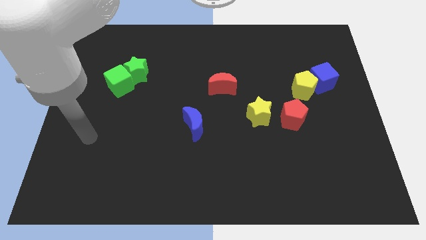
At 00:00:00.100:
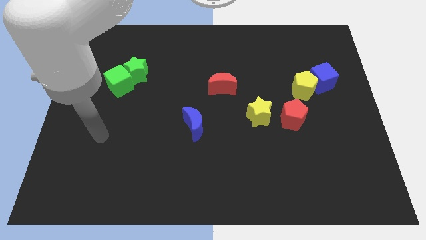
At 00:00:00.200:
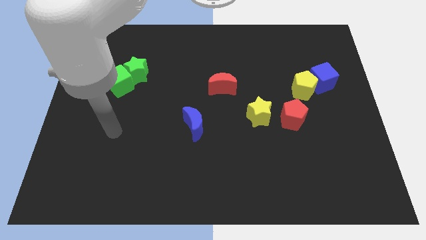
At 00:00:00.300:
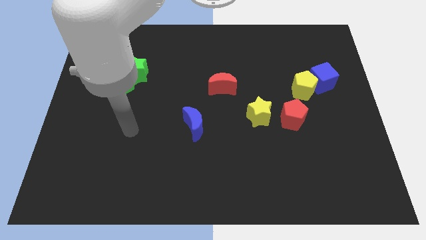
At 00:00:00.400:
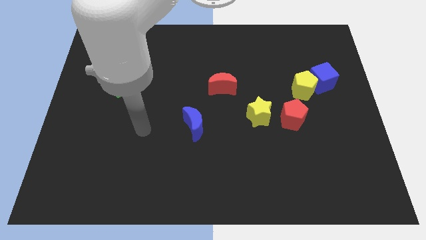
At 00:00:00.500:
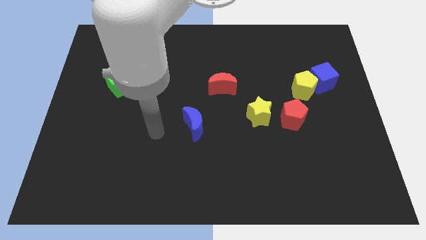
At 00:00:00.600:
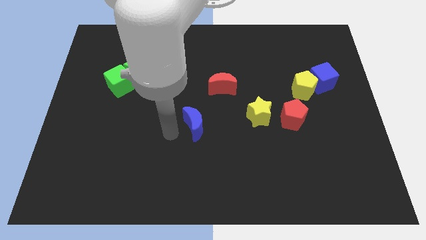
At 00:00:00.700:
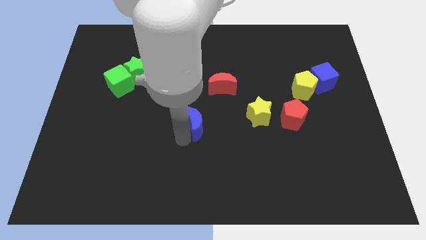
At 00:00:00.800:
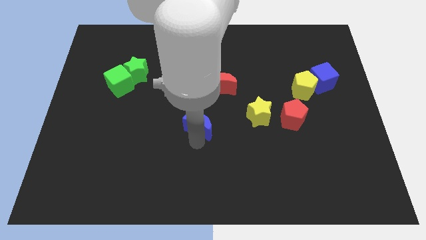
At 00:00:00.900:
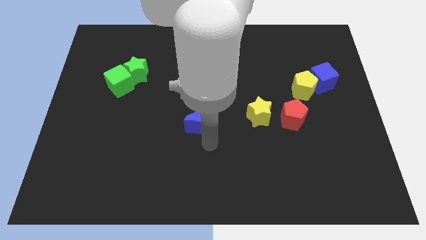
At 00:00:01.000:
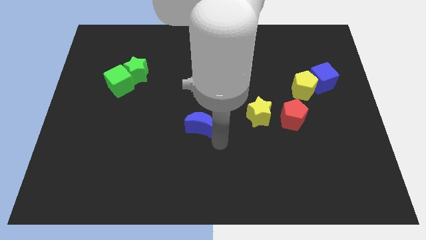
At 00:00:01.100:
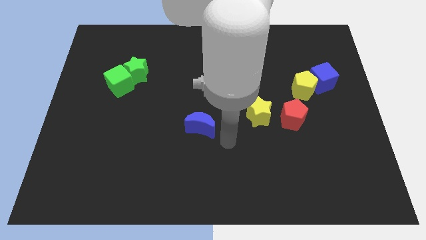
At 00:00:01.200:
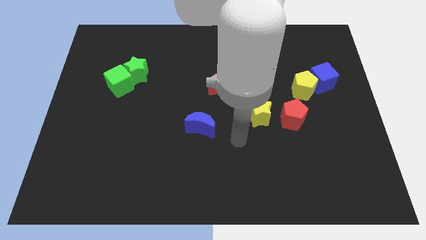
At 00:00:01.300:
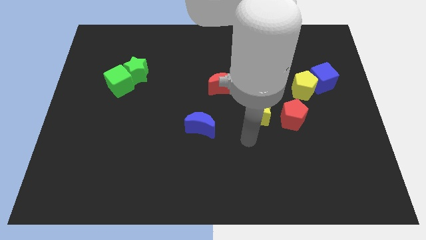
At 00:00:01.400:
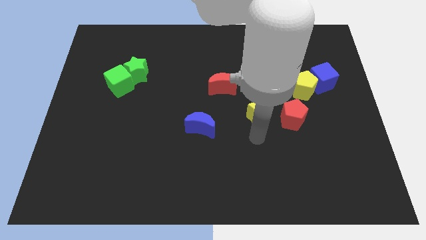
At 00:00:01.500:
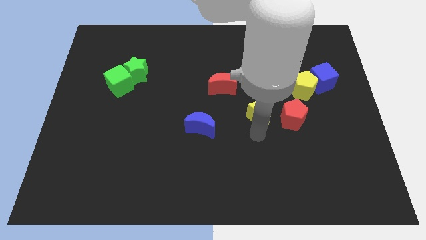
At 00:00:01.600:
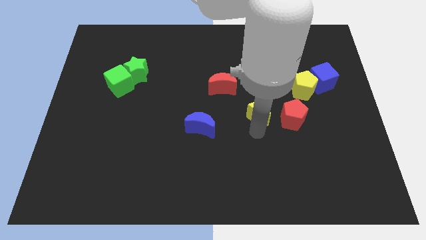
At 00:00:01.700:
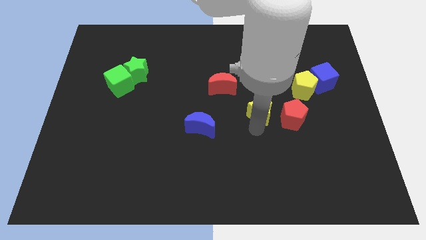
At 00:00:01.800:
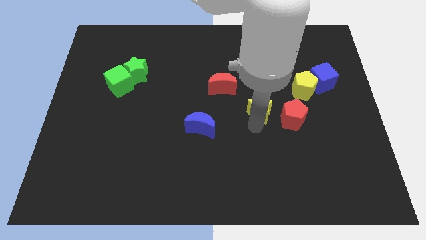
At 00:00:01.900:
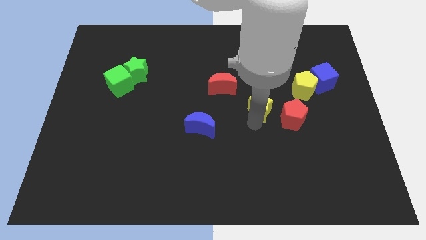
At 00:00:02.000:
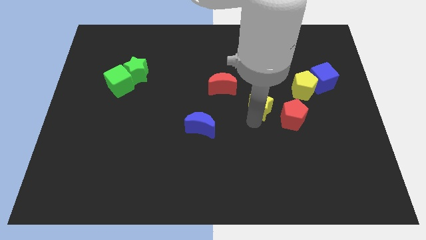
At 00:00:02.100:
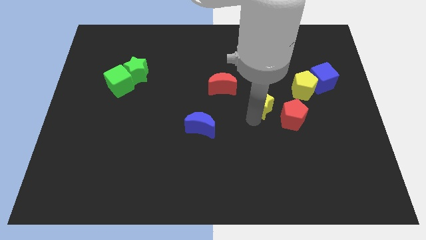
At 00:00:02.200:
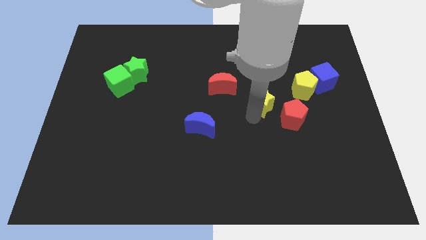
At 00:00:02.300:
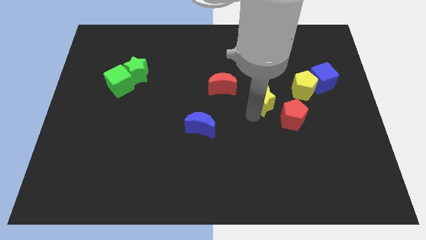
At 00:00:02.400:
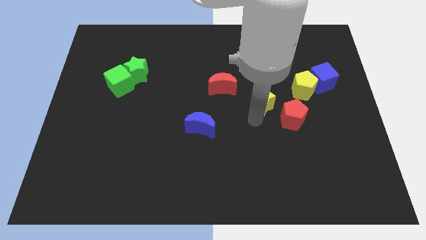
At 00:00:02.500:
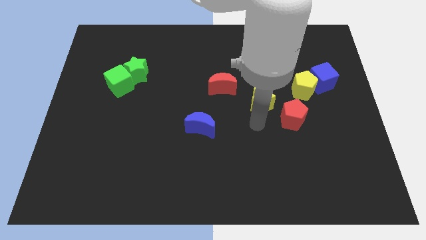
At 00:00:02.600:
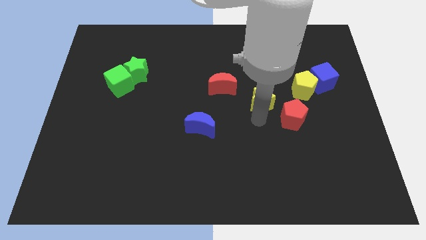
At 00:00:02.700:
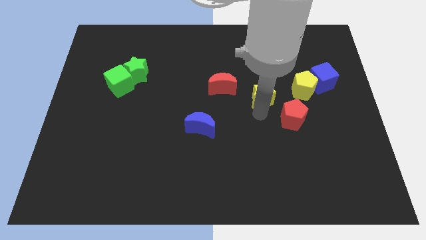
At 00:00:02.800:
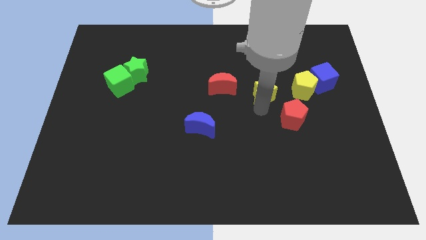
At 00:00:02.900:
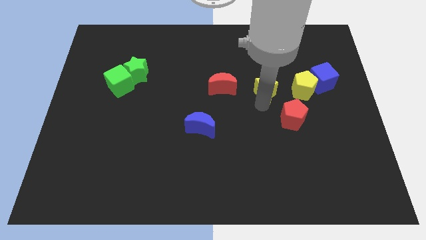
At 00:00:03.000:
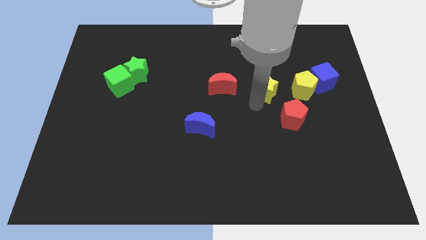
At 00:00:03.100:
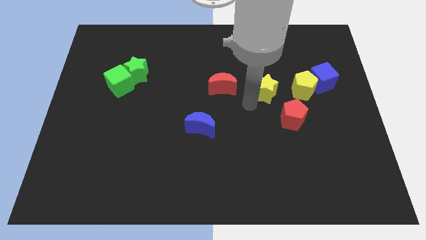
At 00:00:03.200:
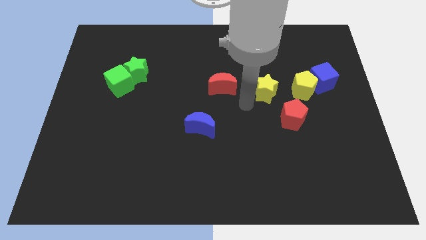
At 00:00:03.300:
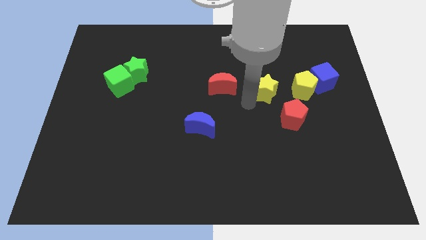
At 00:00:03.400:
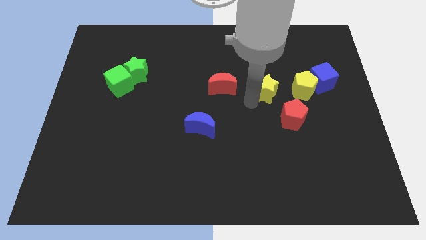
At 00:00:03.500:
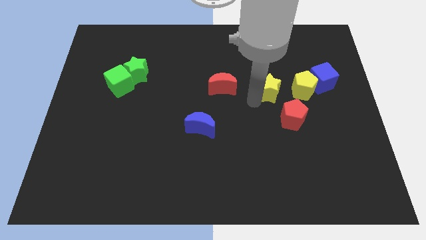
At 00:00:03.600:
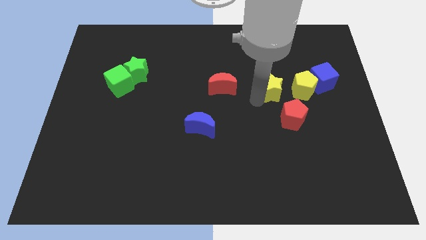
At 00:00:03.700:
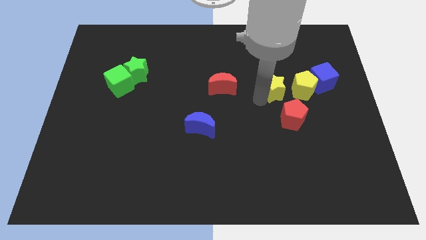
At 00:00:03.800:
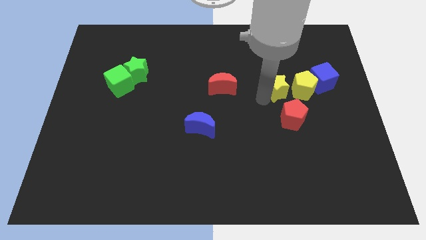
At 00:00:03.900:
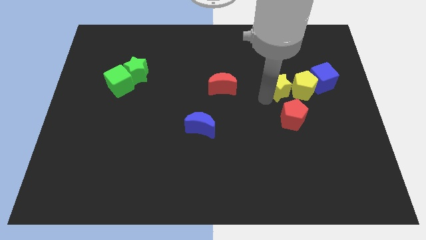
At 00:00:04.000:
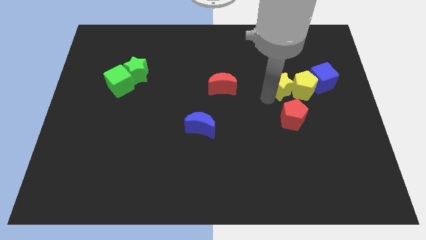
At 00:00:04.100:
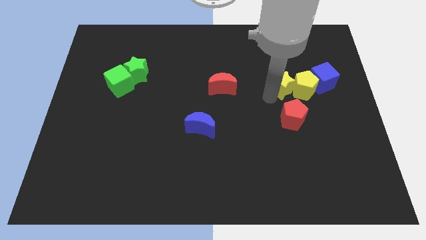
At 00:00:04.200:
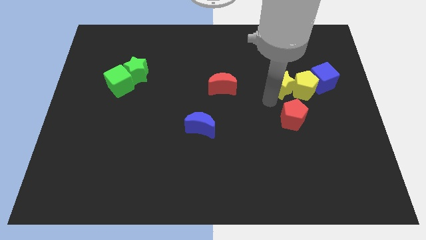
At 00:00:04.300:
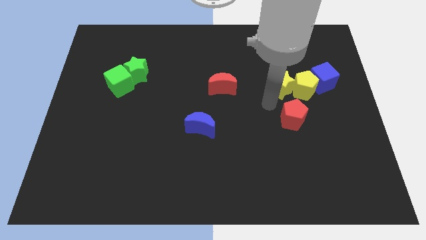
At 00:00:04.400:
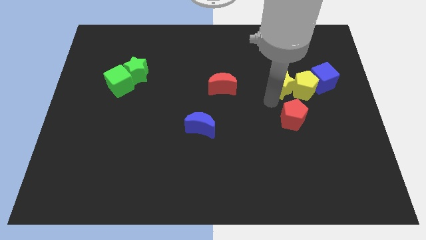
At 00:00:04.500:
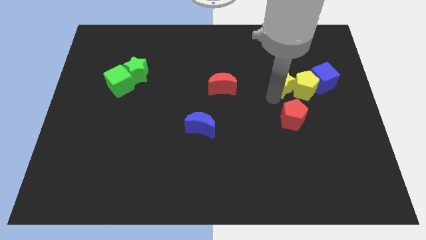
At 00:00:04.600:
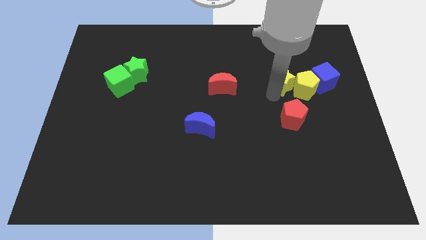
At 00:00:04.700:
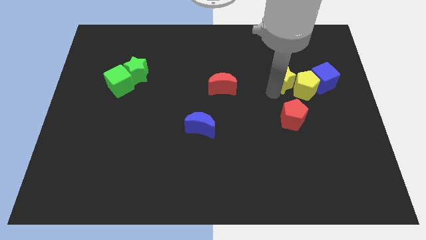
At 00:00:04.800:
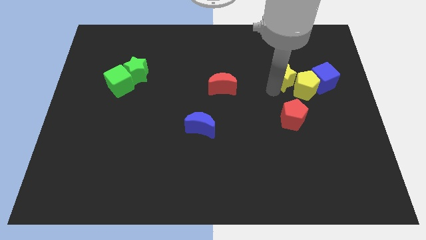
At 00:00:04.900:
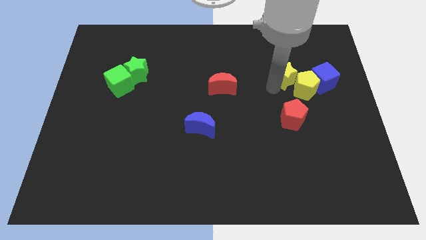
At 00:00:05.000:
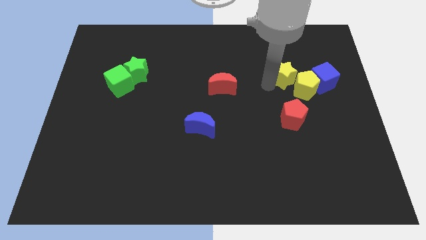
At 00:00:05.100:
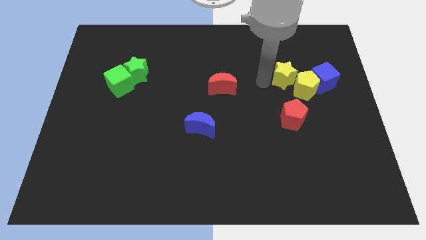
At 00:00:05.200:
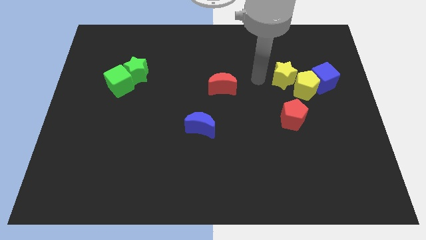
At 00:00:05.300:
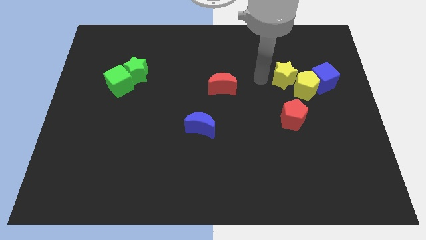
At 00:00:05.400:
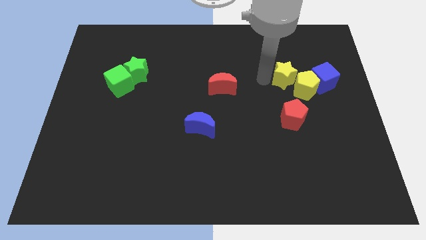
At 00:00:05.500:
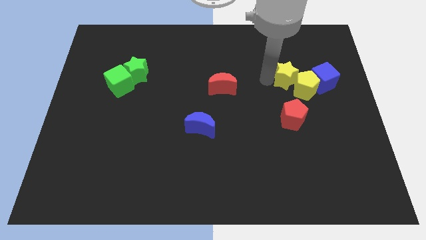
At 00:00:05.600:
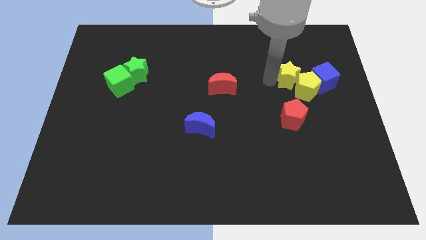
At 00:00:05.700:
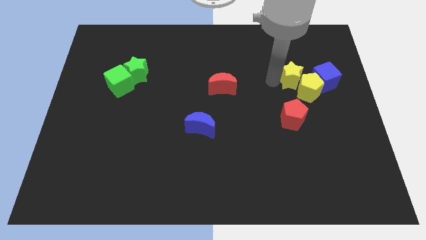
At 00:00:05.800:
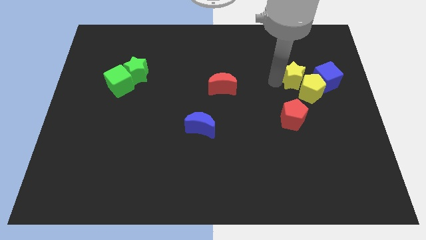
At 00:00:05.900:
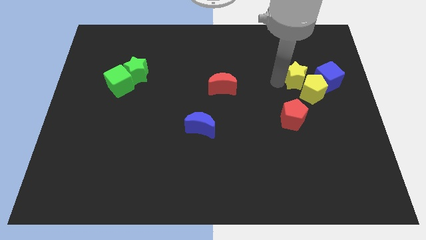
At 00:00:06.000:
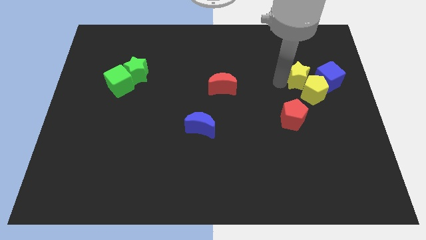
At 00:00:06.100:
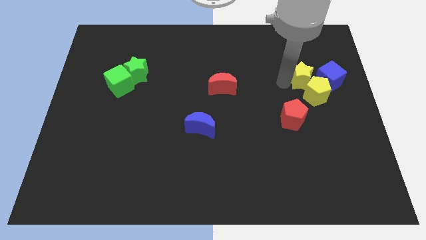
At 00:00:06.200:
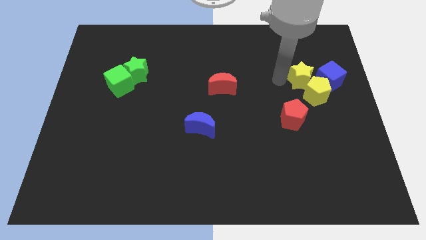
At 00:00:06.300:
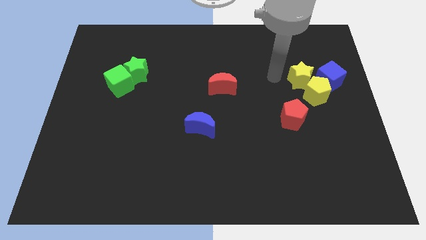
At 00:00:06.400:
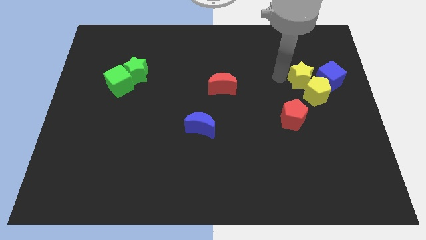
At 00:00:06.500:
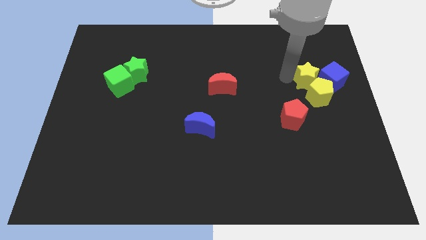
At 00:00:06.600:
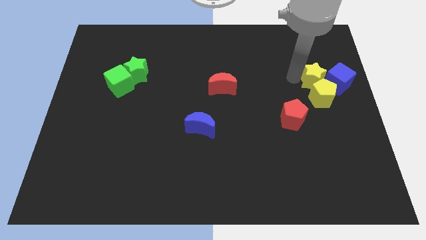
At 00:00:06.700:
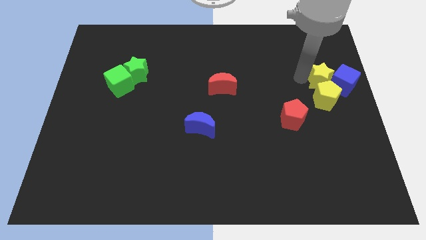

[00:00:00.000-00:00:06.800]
push the yellow star close to the blue cube

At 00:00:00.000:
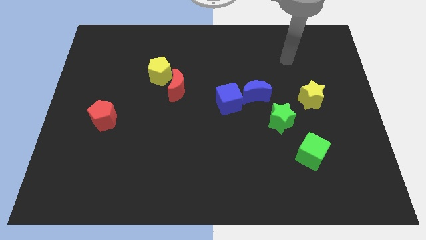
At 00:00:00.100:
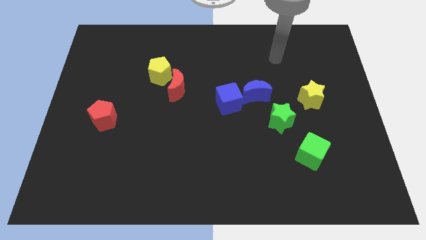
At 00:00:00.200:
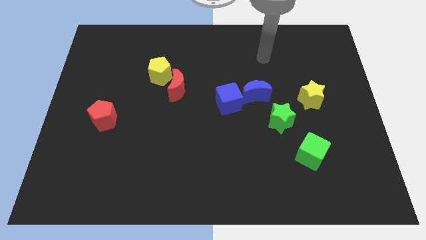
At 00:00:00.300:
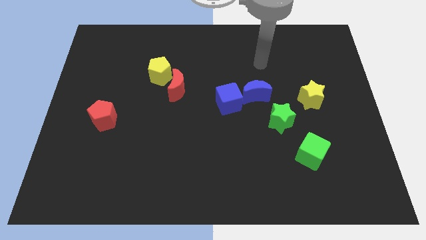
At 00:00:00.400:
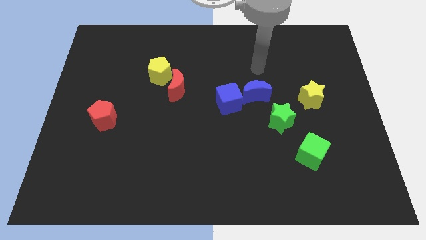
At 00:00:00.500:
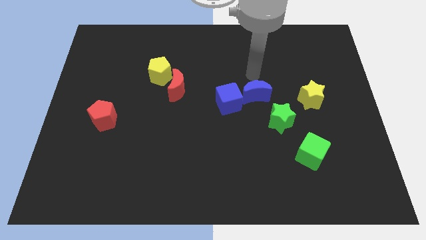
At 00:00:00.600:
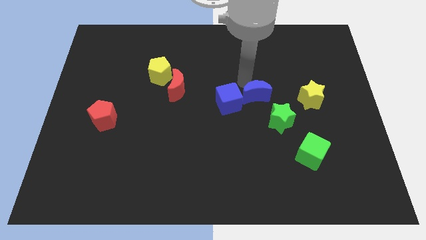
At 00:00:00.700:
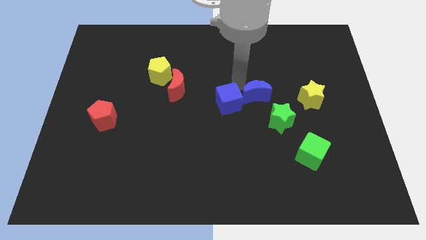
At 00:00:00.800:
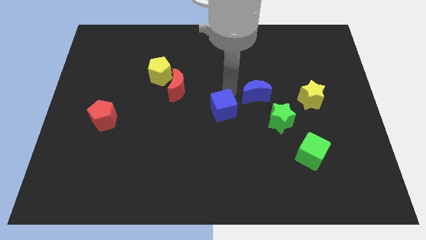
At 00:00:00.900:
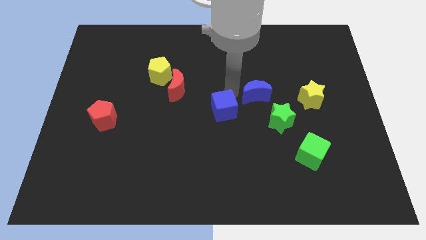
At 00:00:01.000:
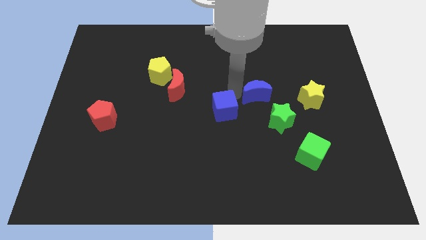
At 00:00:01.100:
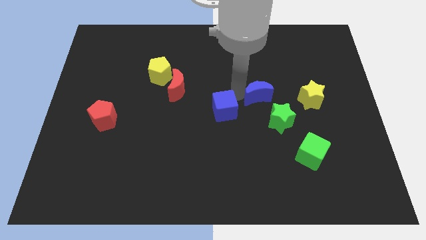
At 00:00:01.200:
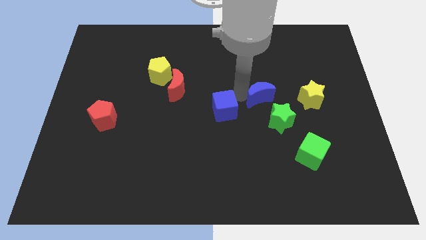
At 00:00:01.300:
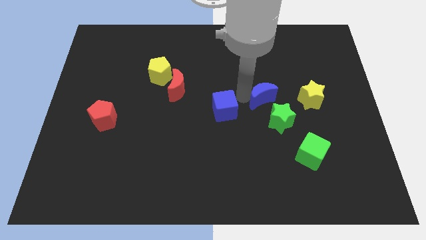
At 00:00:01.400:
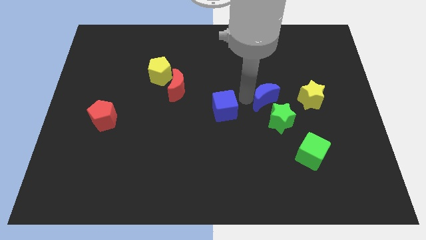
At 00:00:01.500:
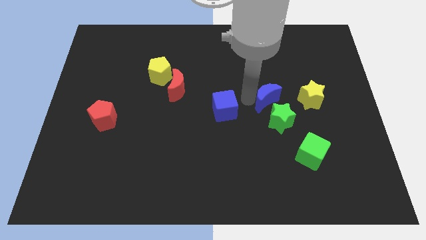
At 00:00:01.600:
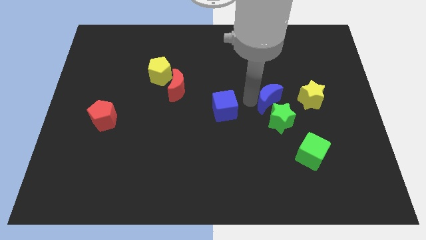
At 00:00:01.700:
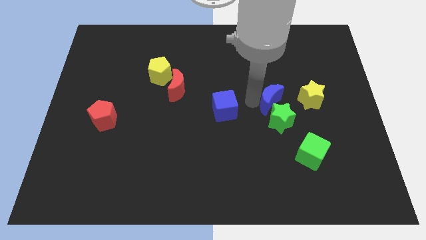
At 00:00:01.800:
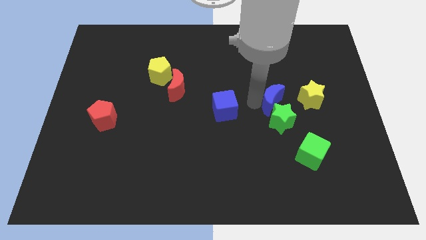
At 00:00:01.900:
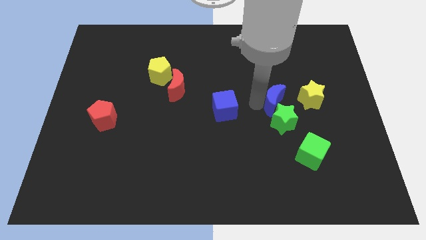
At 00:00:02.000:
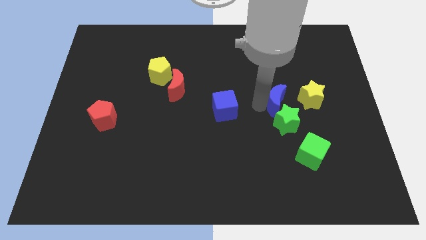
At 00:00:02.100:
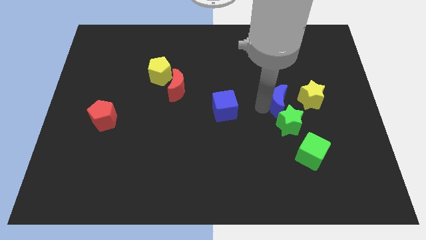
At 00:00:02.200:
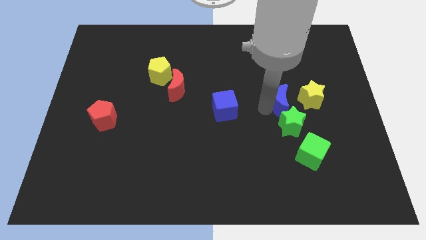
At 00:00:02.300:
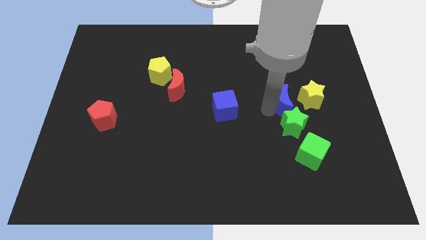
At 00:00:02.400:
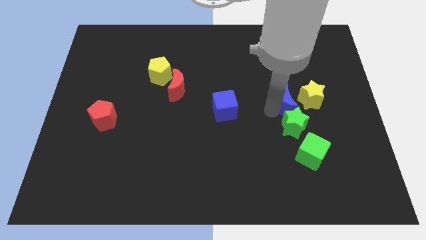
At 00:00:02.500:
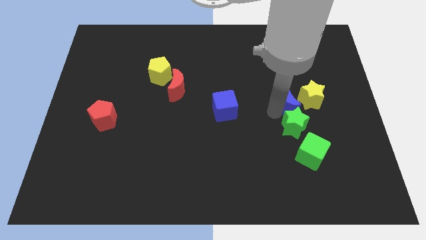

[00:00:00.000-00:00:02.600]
push the blue moon next to the yellow star
